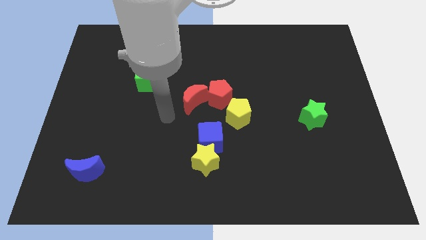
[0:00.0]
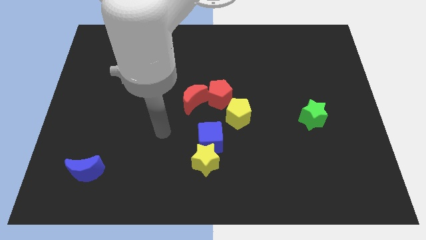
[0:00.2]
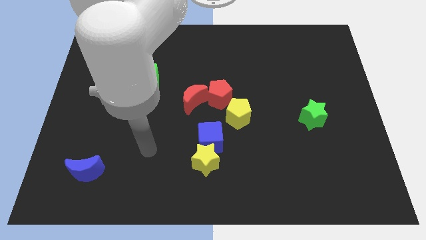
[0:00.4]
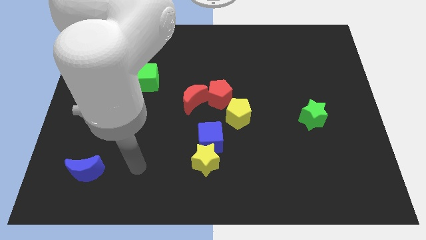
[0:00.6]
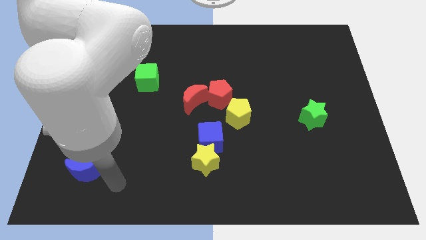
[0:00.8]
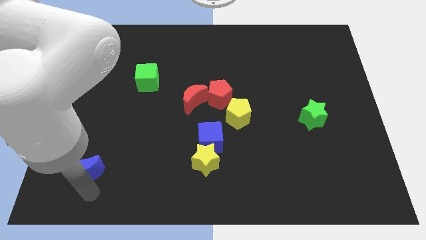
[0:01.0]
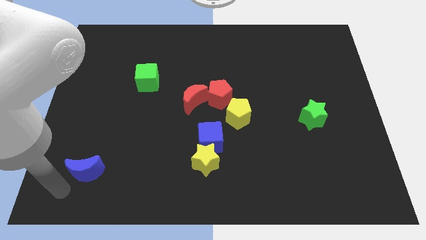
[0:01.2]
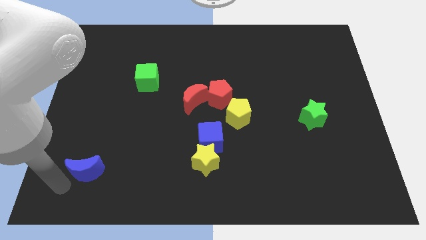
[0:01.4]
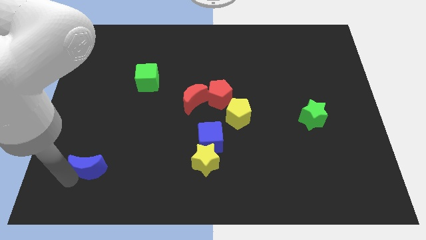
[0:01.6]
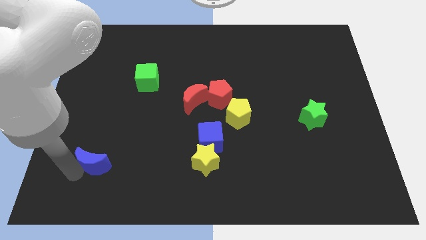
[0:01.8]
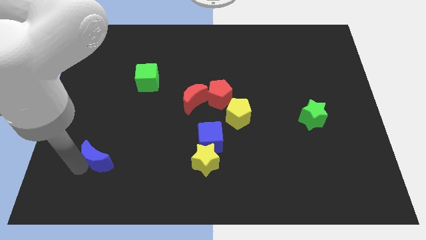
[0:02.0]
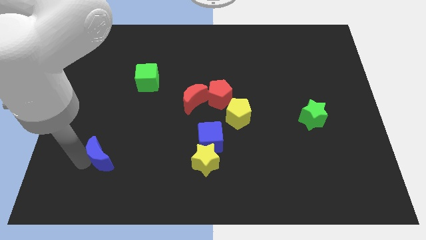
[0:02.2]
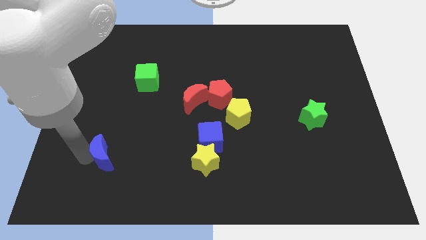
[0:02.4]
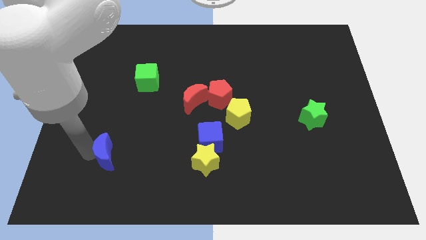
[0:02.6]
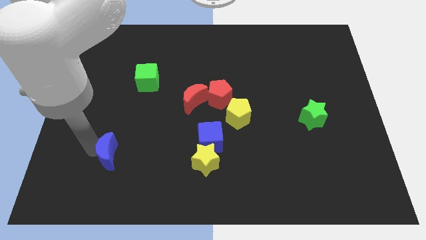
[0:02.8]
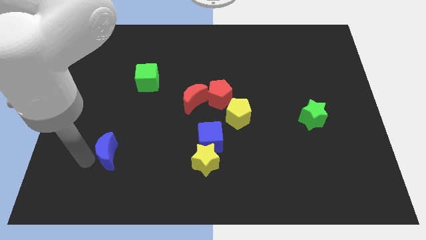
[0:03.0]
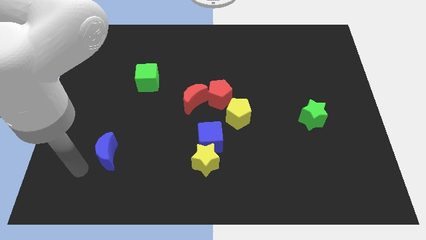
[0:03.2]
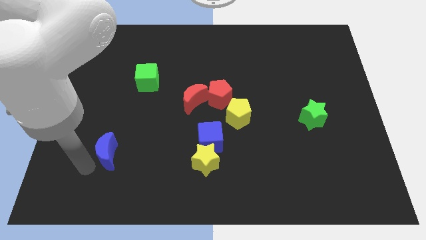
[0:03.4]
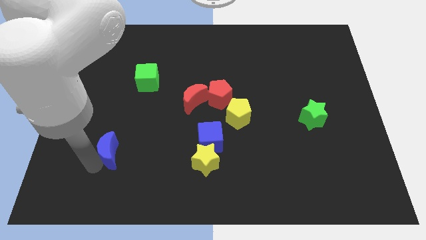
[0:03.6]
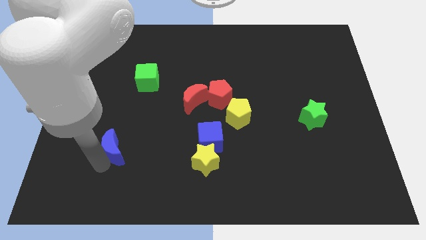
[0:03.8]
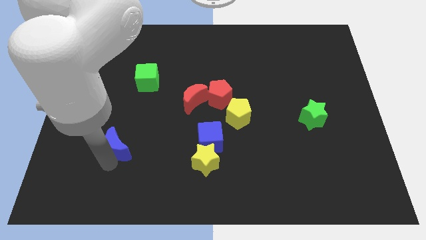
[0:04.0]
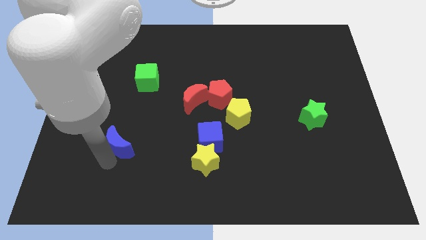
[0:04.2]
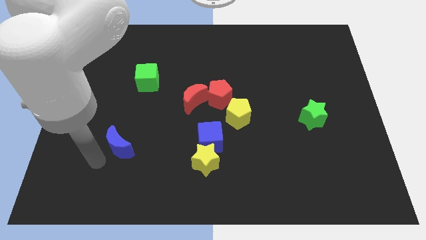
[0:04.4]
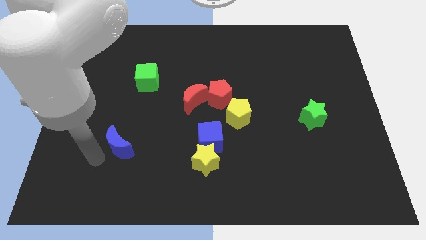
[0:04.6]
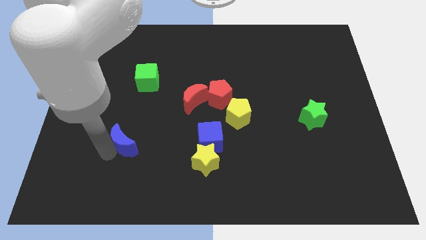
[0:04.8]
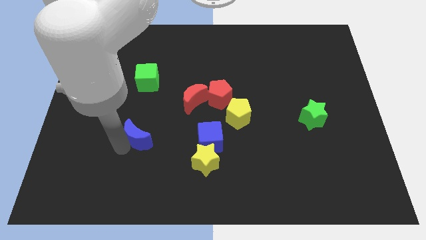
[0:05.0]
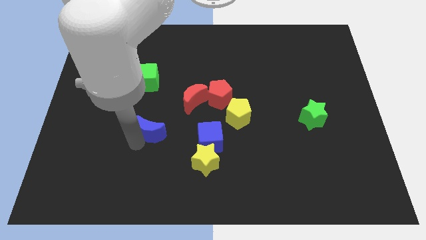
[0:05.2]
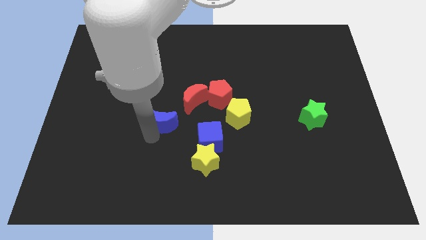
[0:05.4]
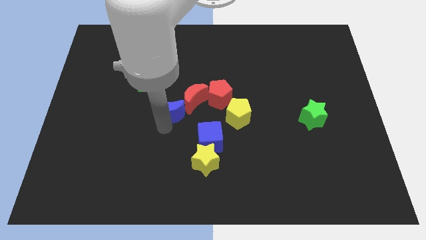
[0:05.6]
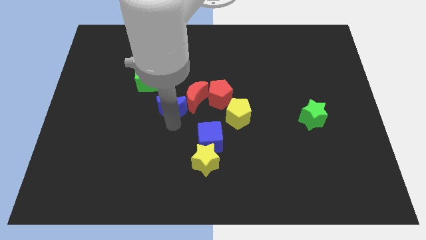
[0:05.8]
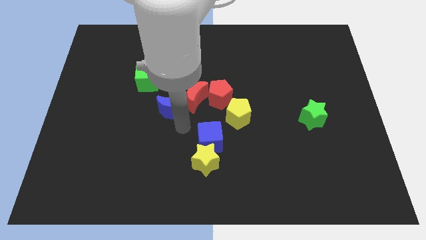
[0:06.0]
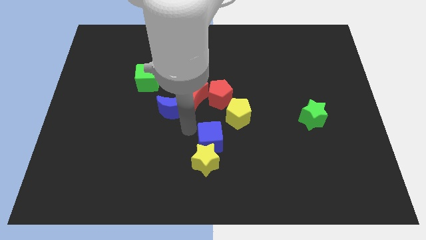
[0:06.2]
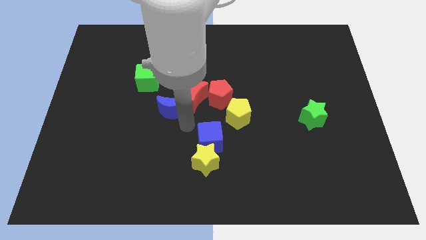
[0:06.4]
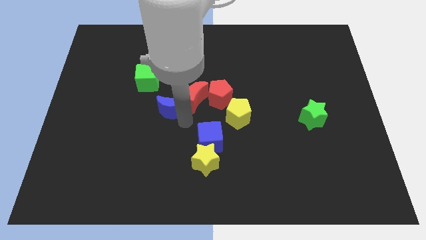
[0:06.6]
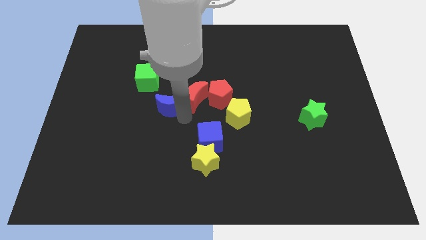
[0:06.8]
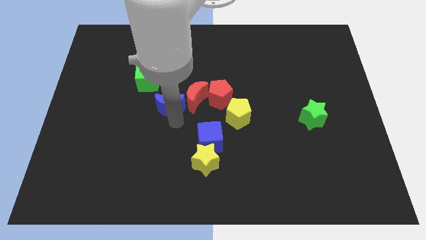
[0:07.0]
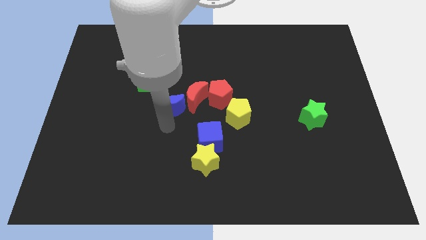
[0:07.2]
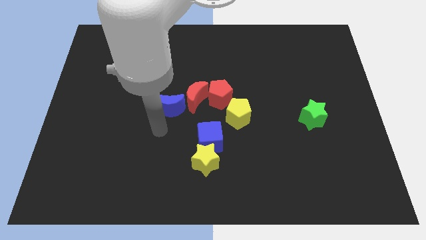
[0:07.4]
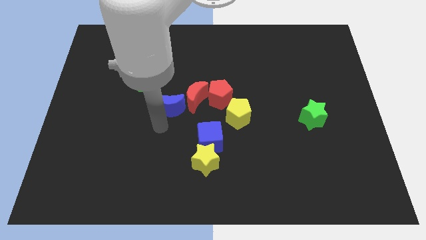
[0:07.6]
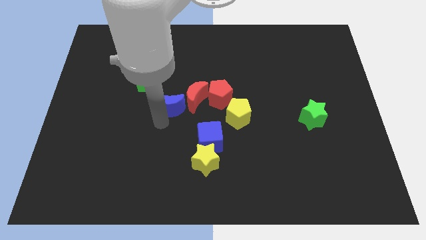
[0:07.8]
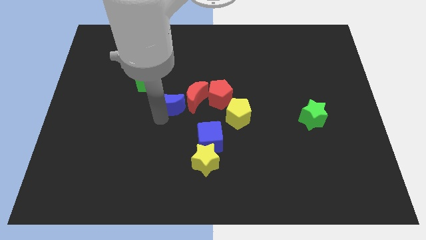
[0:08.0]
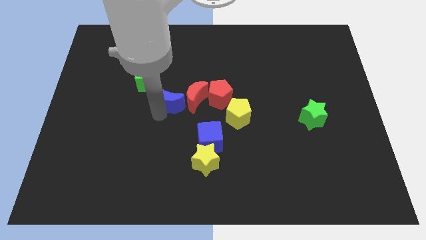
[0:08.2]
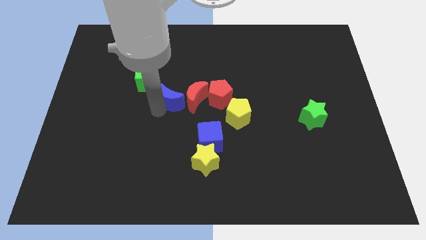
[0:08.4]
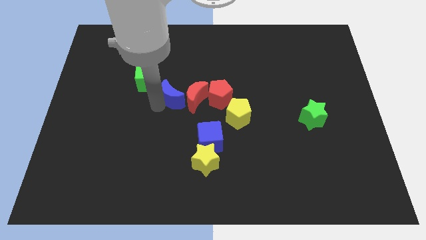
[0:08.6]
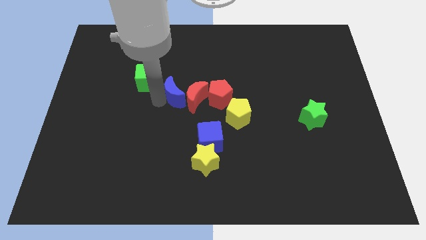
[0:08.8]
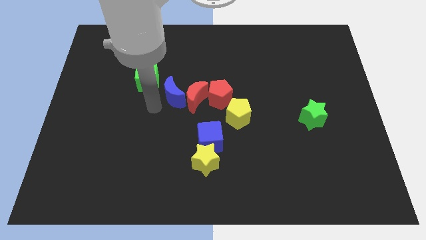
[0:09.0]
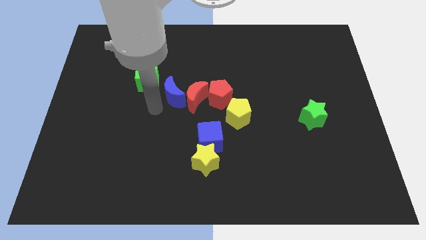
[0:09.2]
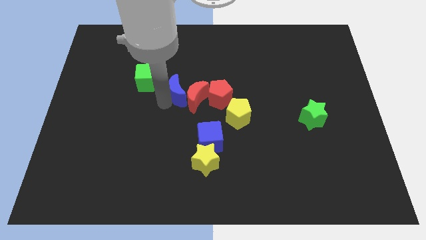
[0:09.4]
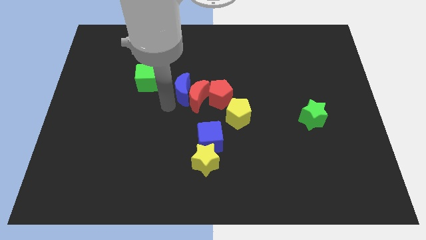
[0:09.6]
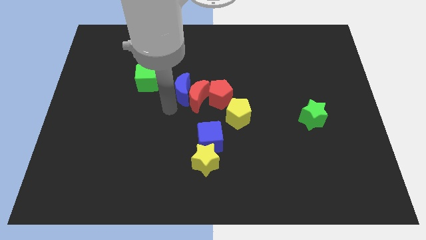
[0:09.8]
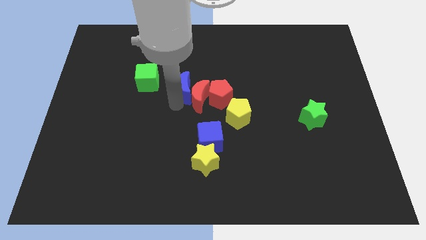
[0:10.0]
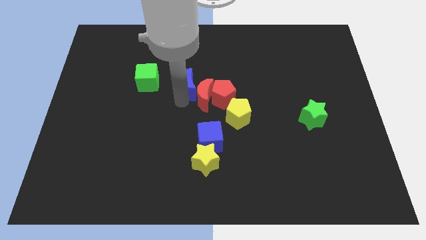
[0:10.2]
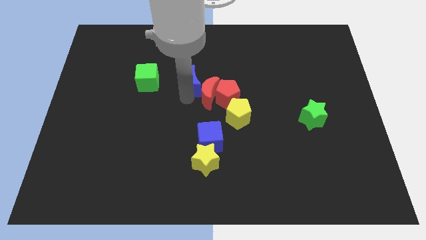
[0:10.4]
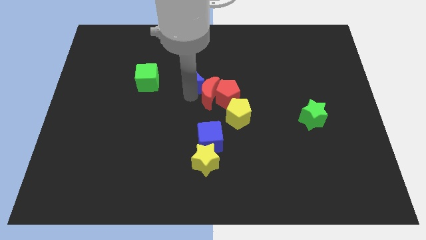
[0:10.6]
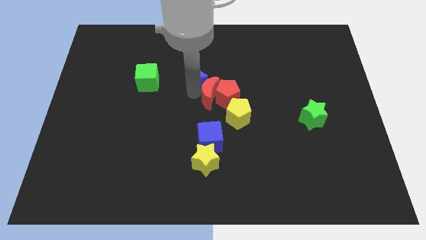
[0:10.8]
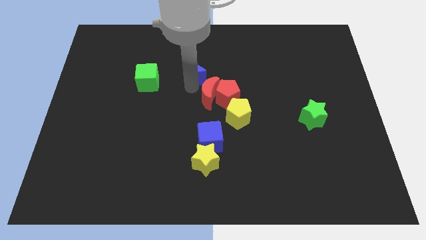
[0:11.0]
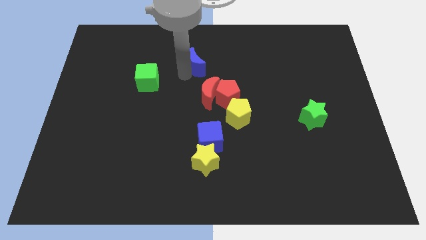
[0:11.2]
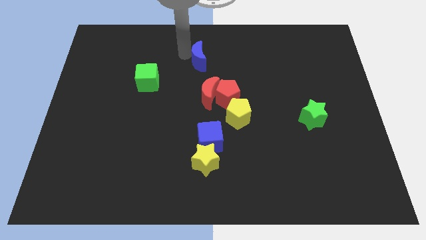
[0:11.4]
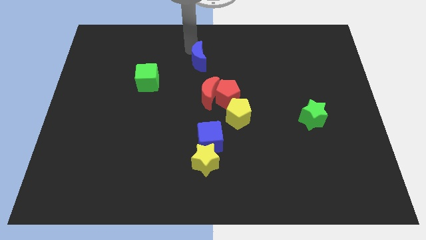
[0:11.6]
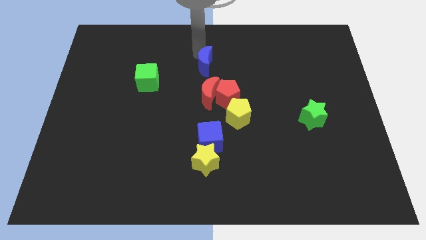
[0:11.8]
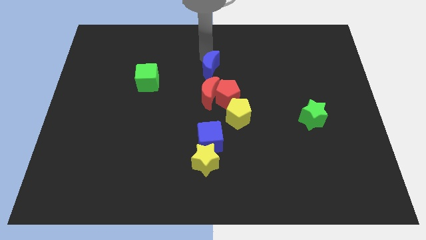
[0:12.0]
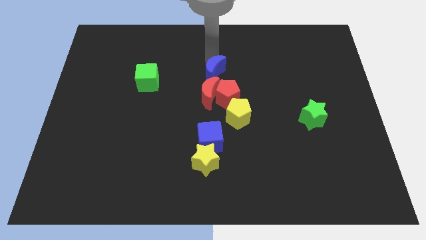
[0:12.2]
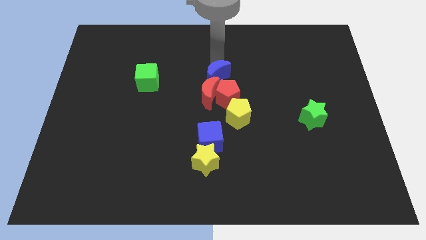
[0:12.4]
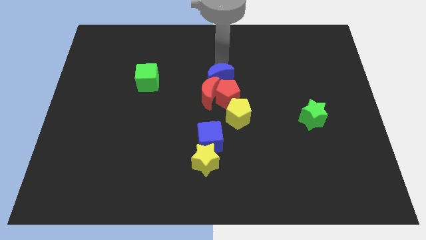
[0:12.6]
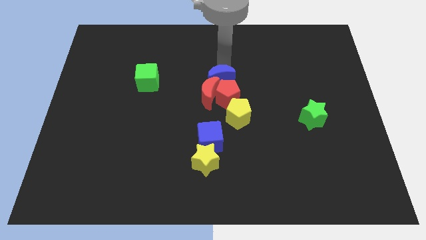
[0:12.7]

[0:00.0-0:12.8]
push the blue moon to the red pentagon

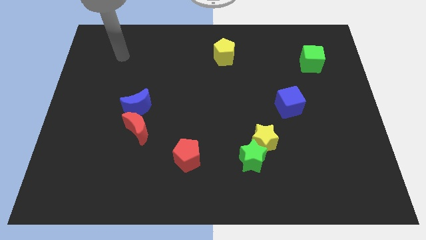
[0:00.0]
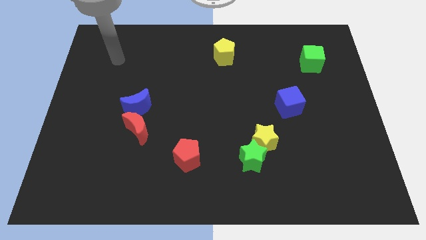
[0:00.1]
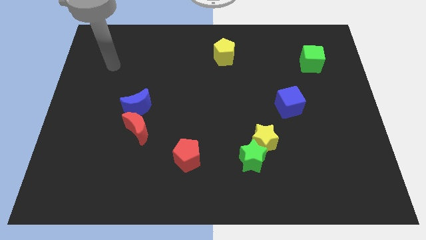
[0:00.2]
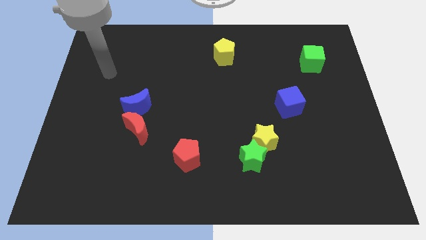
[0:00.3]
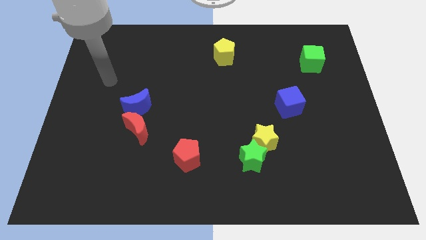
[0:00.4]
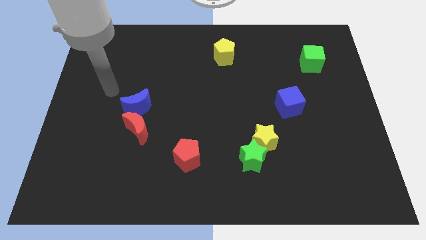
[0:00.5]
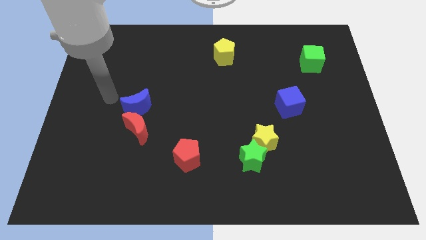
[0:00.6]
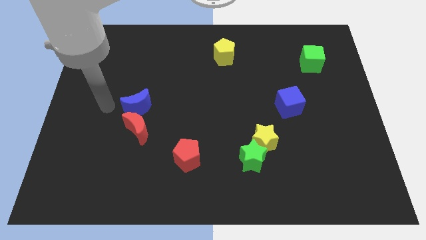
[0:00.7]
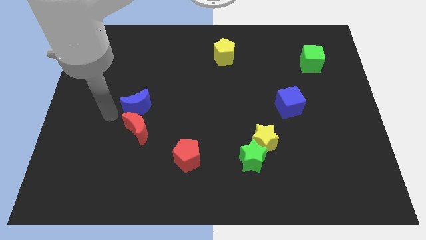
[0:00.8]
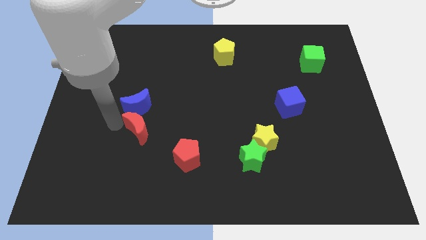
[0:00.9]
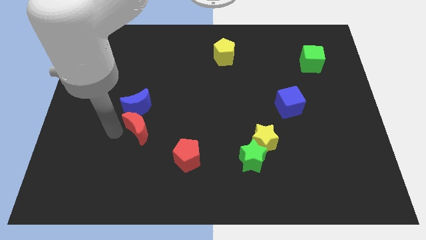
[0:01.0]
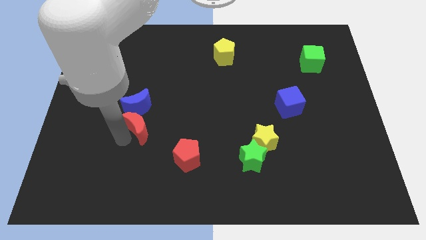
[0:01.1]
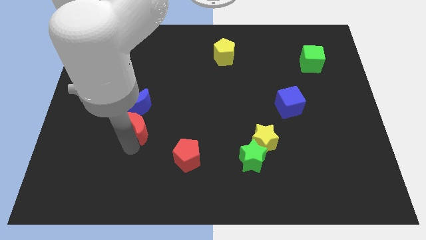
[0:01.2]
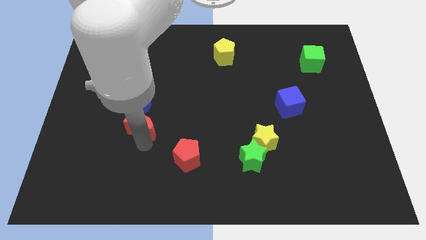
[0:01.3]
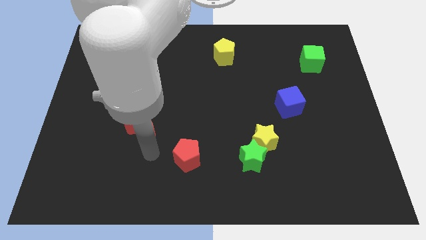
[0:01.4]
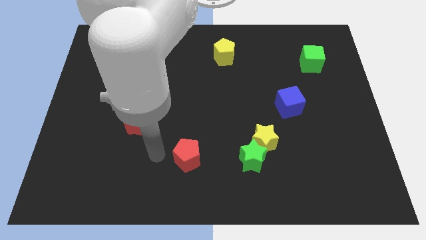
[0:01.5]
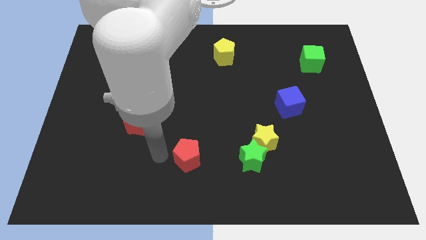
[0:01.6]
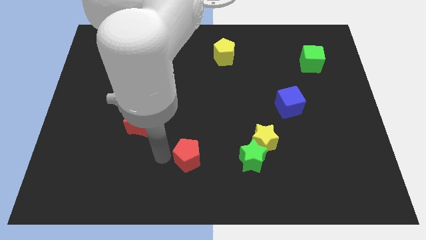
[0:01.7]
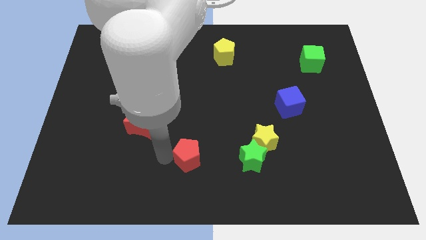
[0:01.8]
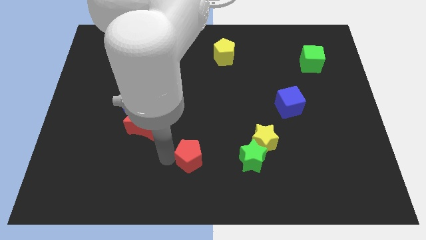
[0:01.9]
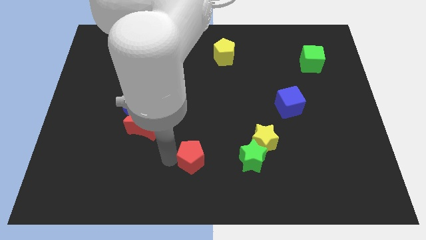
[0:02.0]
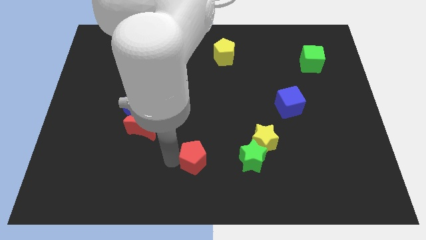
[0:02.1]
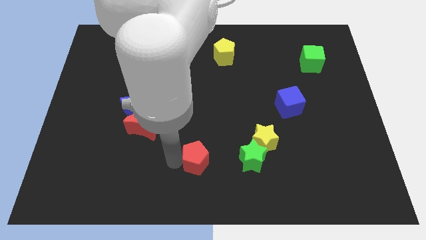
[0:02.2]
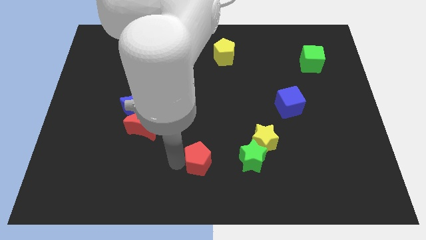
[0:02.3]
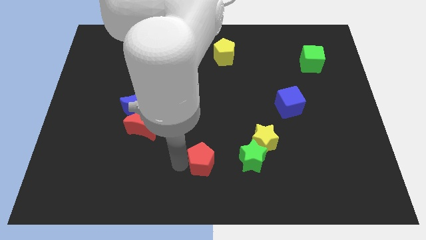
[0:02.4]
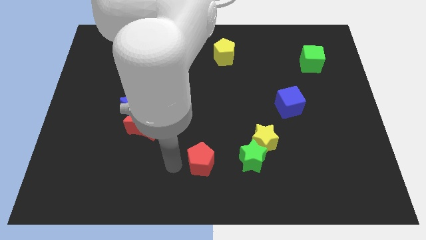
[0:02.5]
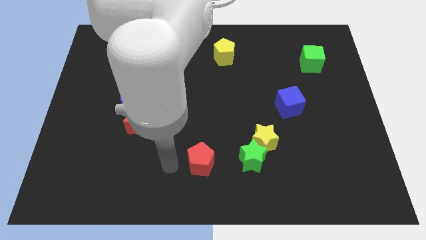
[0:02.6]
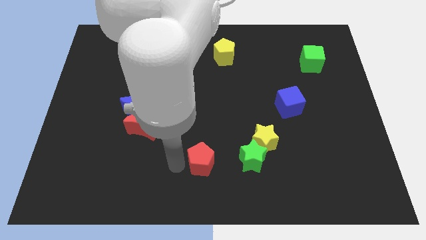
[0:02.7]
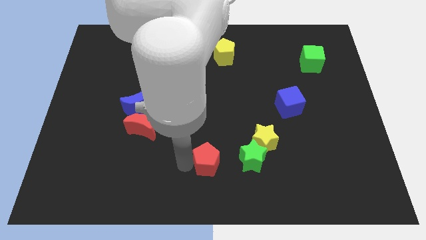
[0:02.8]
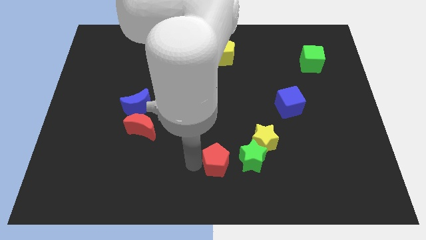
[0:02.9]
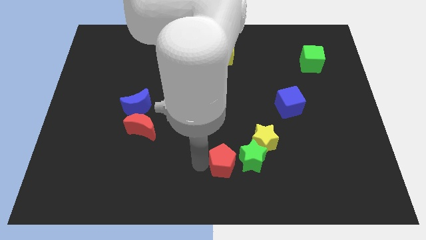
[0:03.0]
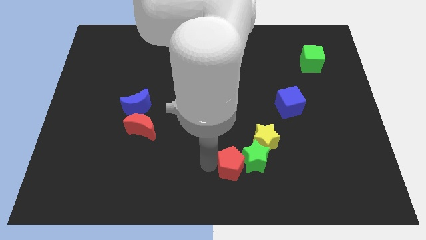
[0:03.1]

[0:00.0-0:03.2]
move the red pentagon to the green star
